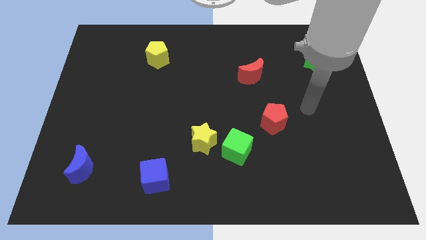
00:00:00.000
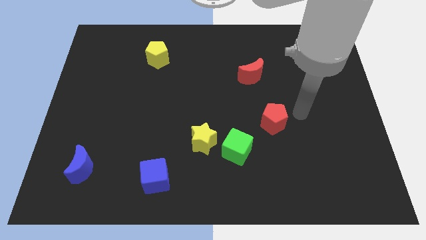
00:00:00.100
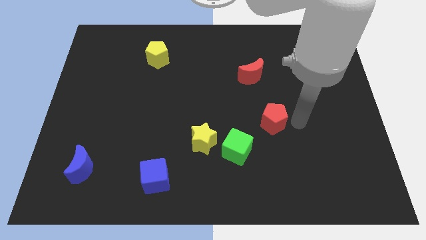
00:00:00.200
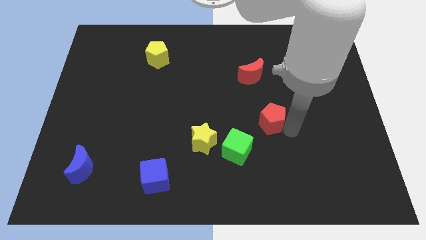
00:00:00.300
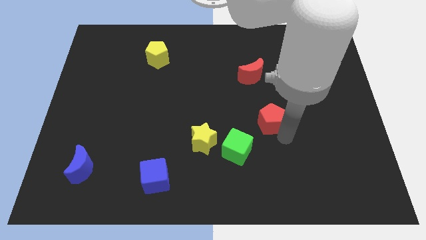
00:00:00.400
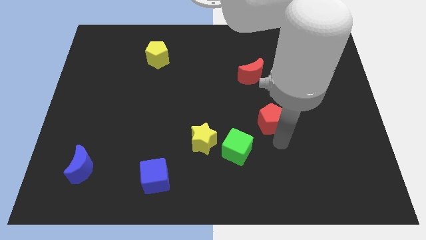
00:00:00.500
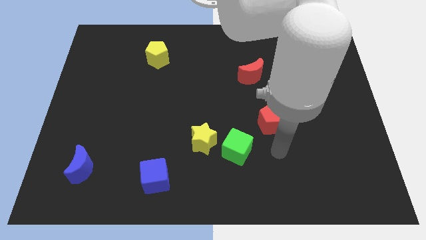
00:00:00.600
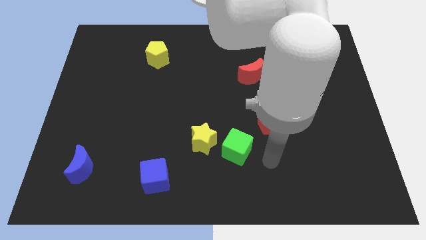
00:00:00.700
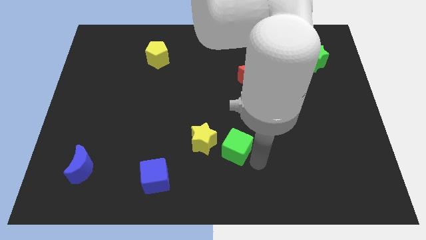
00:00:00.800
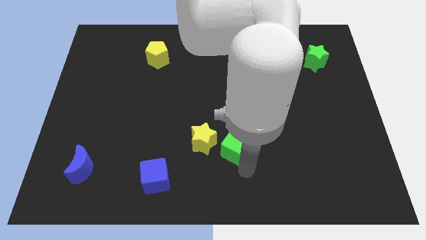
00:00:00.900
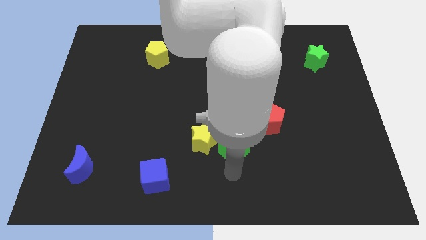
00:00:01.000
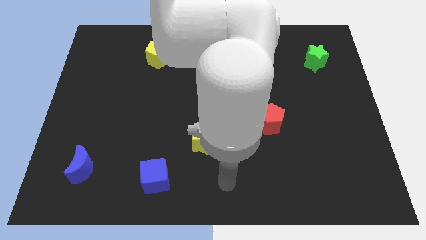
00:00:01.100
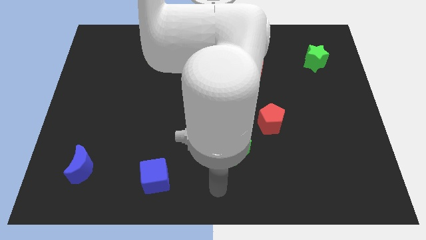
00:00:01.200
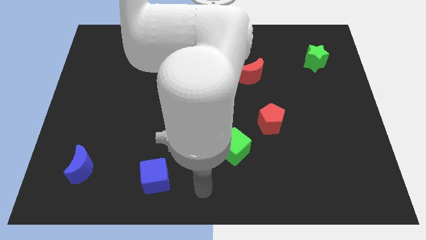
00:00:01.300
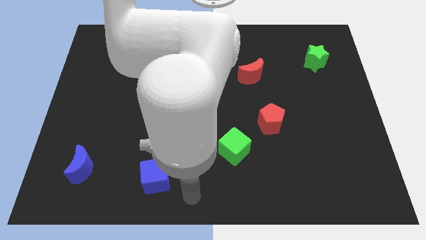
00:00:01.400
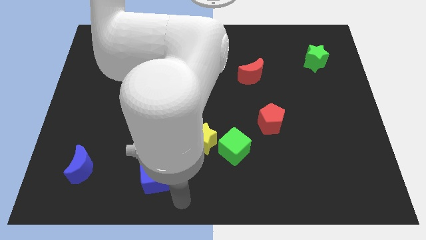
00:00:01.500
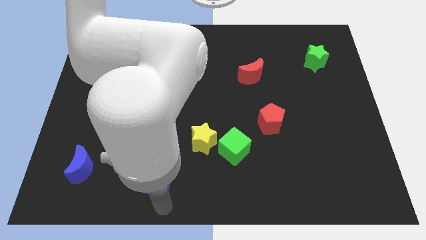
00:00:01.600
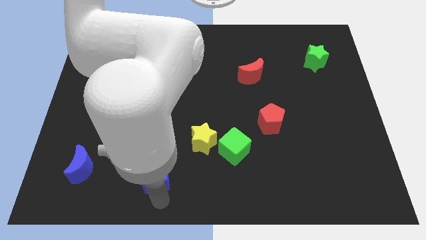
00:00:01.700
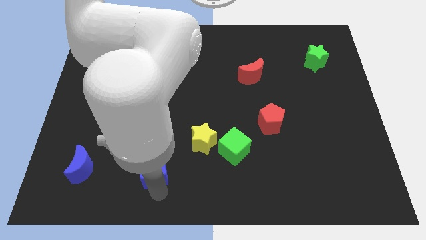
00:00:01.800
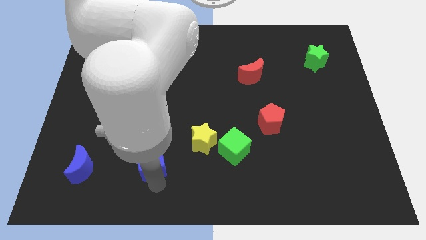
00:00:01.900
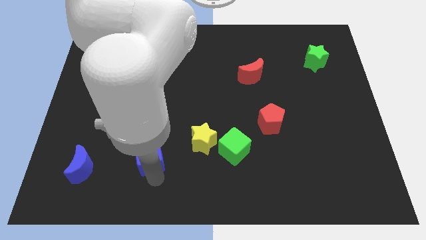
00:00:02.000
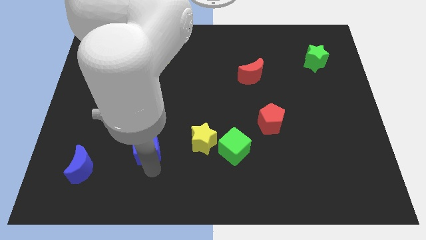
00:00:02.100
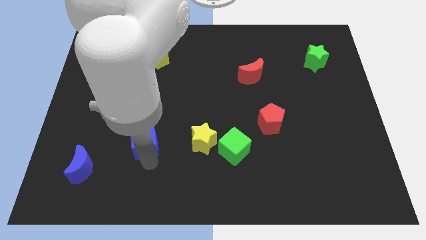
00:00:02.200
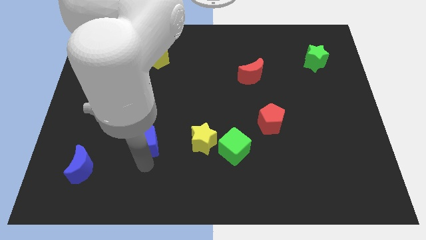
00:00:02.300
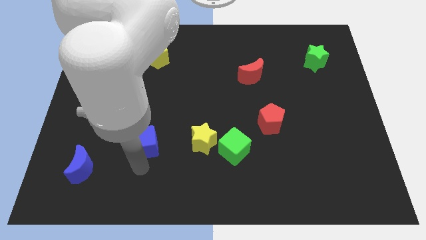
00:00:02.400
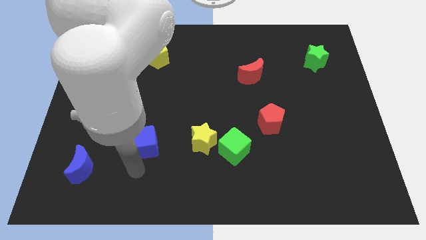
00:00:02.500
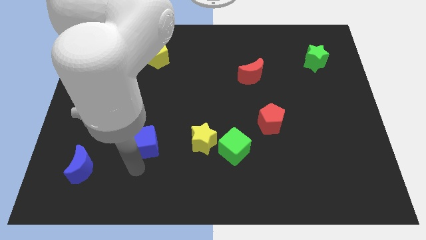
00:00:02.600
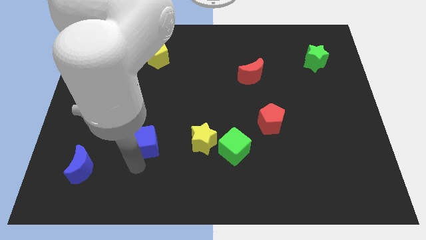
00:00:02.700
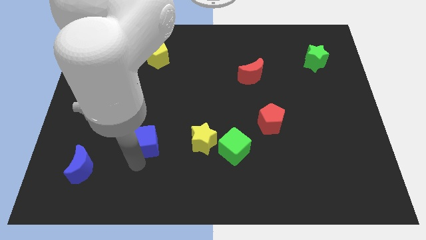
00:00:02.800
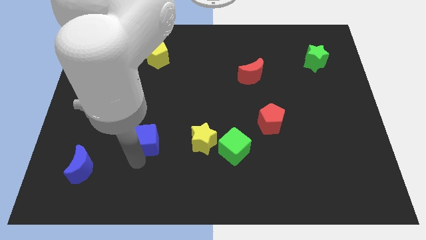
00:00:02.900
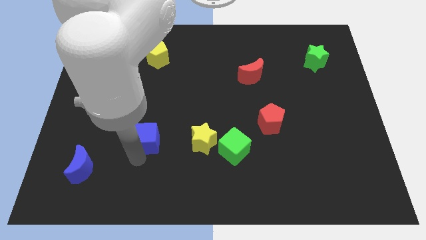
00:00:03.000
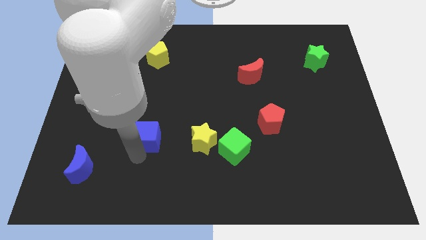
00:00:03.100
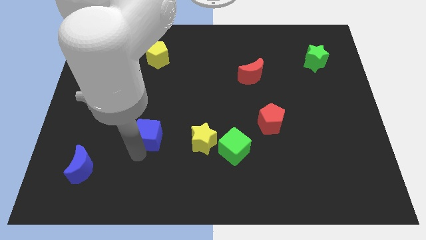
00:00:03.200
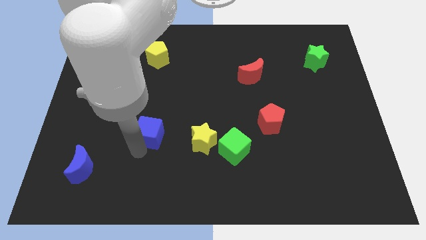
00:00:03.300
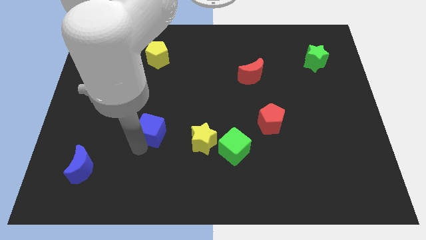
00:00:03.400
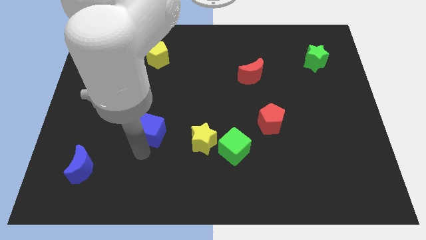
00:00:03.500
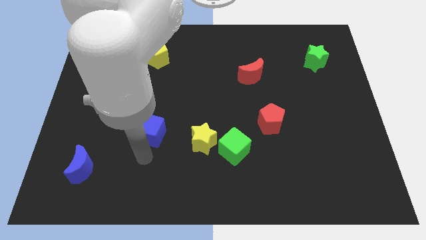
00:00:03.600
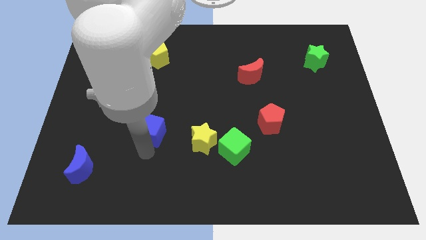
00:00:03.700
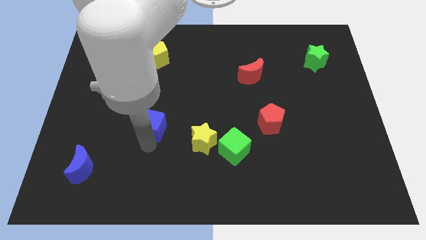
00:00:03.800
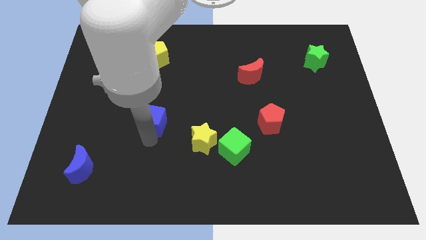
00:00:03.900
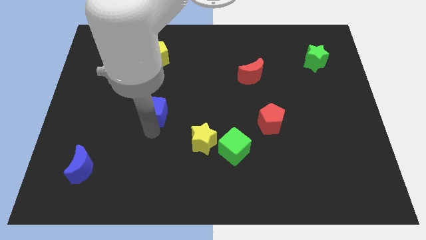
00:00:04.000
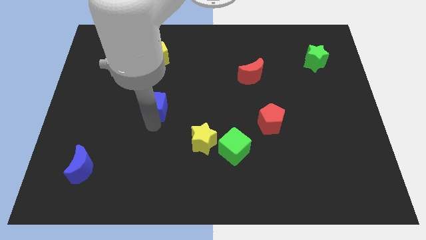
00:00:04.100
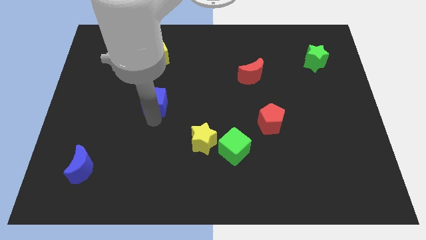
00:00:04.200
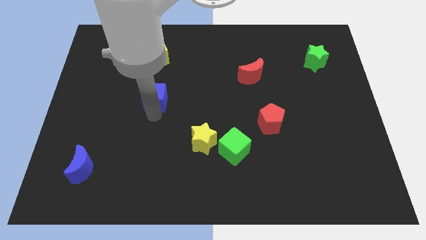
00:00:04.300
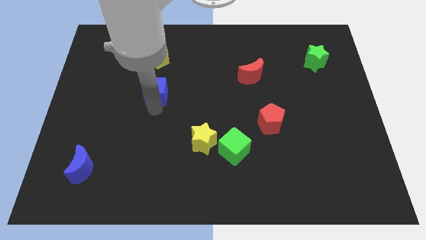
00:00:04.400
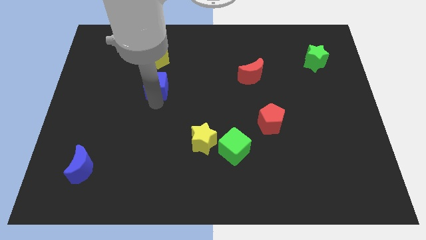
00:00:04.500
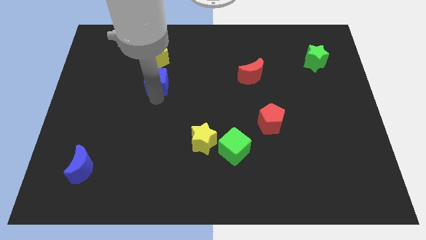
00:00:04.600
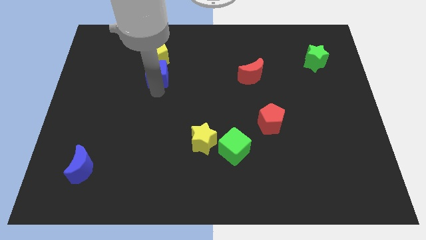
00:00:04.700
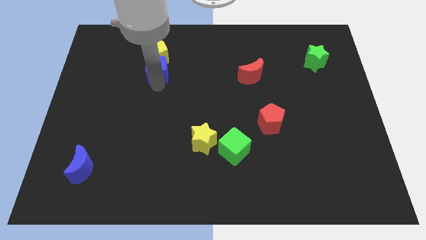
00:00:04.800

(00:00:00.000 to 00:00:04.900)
slide the blue cube next to the yellow pentagon

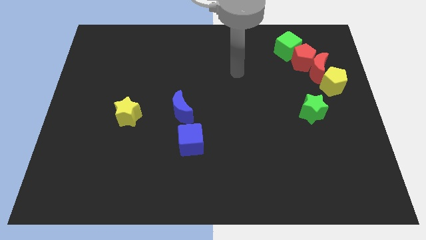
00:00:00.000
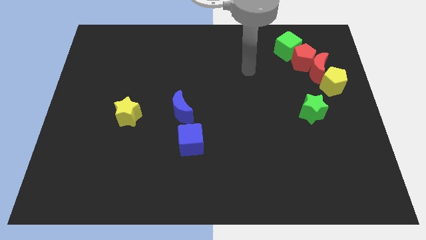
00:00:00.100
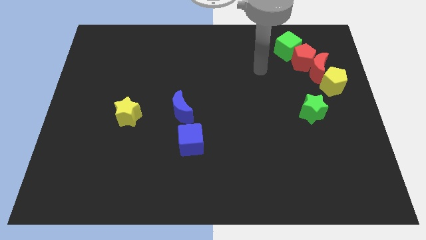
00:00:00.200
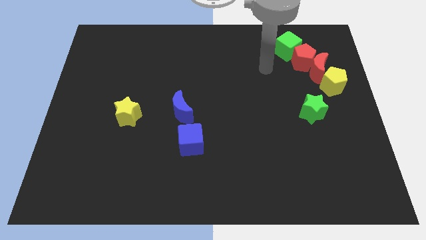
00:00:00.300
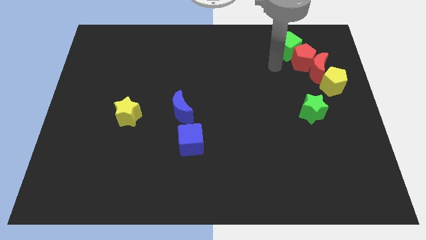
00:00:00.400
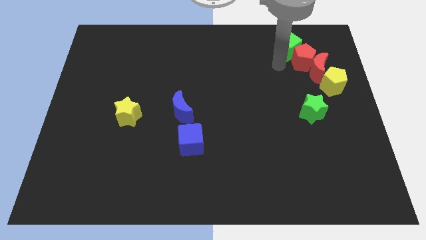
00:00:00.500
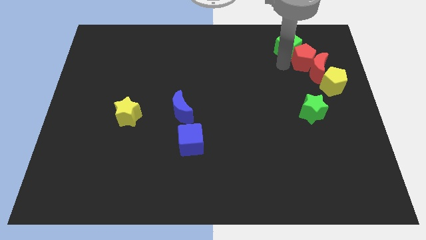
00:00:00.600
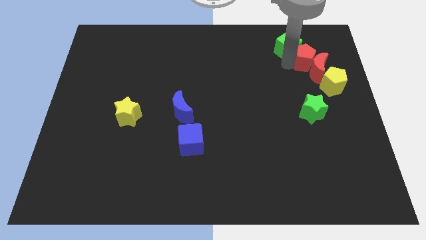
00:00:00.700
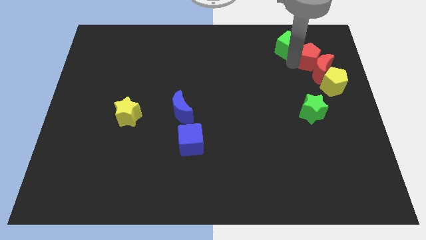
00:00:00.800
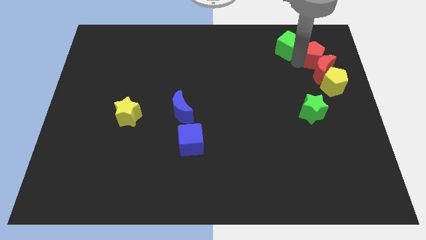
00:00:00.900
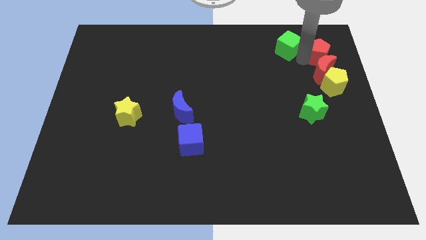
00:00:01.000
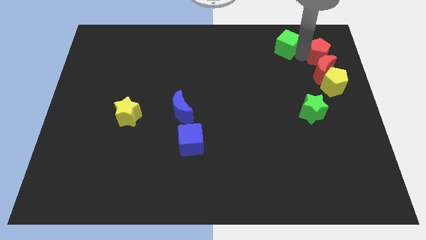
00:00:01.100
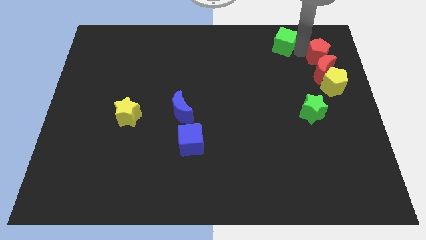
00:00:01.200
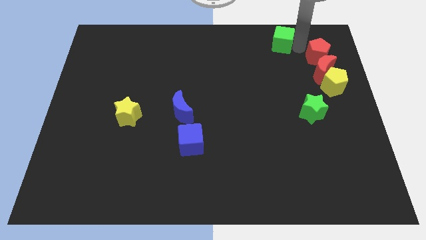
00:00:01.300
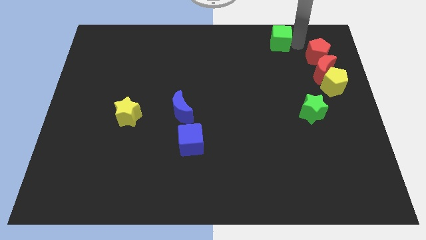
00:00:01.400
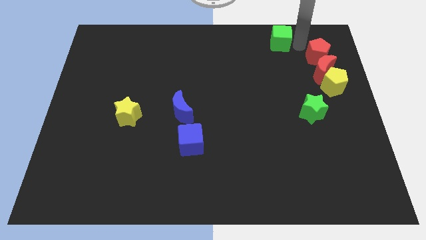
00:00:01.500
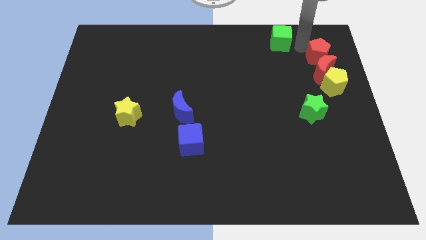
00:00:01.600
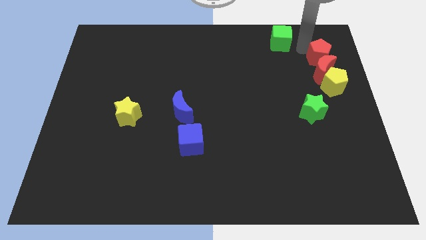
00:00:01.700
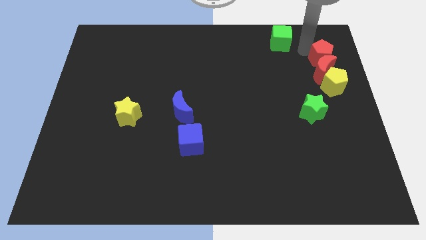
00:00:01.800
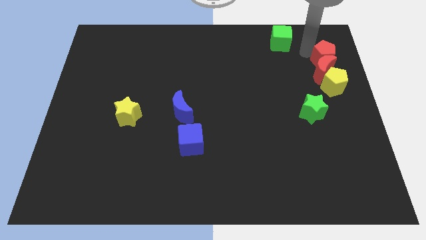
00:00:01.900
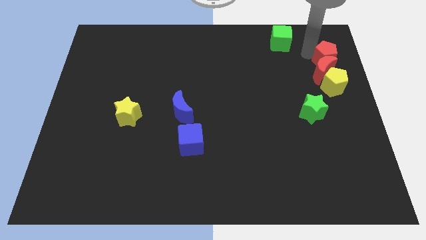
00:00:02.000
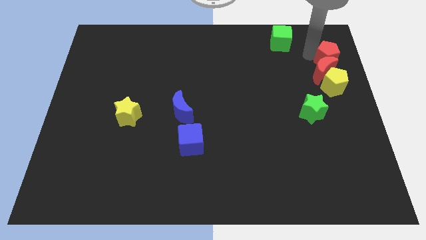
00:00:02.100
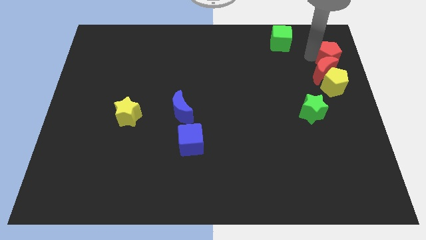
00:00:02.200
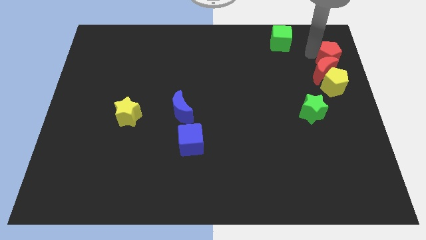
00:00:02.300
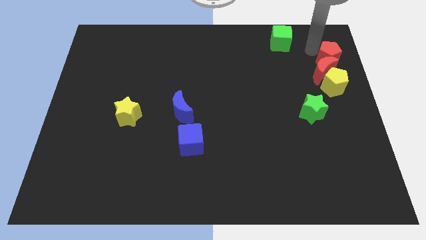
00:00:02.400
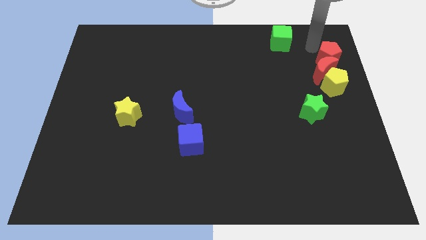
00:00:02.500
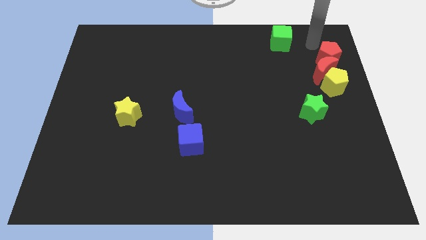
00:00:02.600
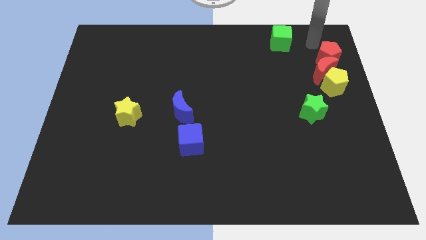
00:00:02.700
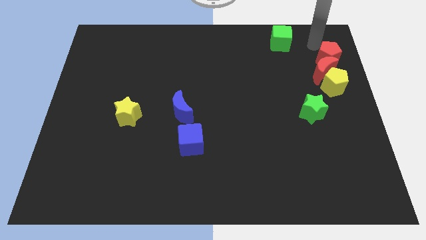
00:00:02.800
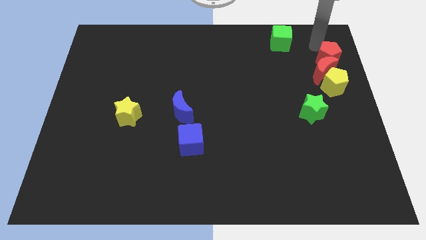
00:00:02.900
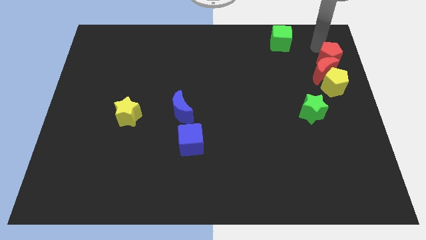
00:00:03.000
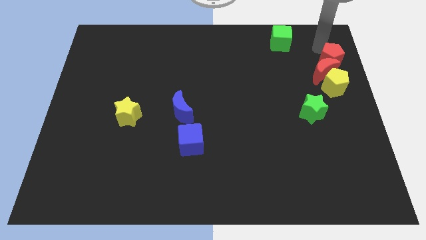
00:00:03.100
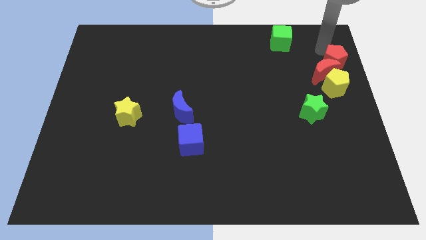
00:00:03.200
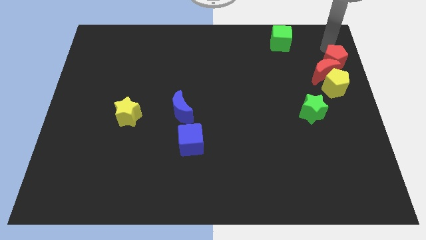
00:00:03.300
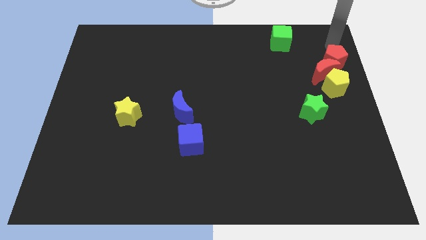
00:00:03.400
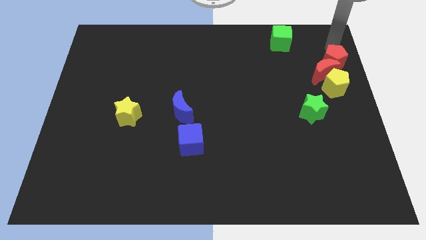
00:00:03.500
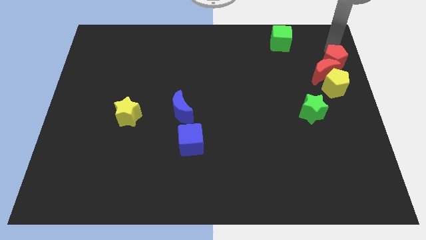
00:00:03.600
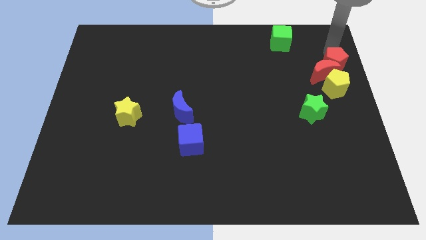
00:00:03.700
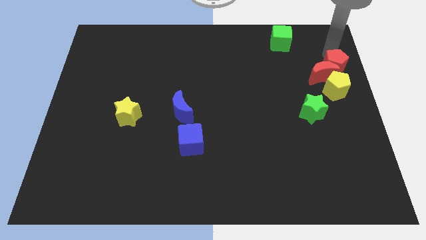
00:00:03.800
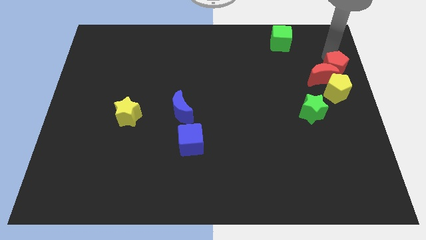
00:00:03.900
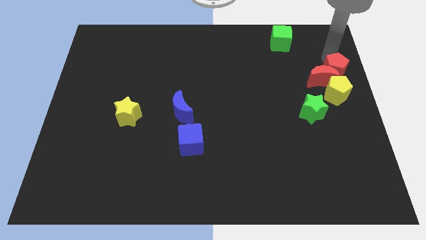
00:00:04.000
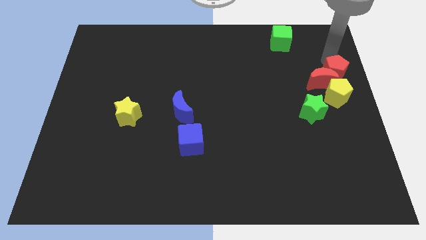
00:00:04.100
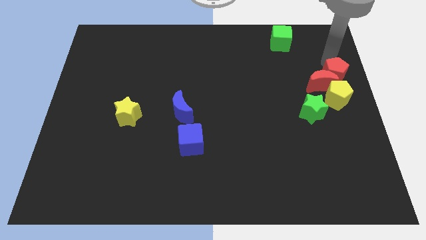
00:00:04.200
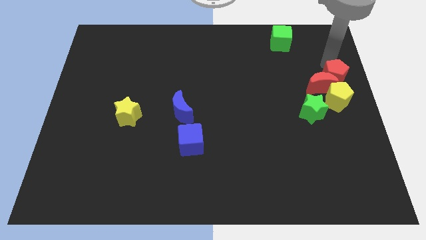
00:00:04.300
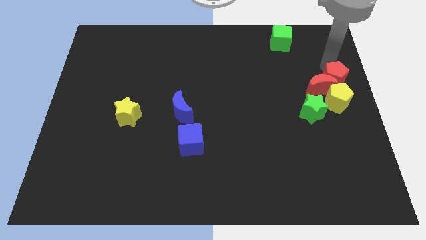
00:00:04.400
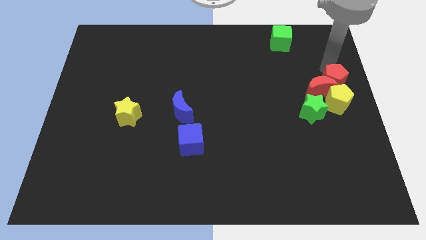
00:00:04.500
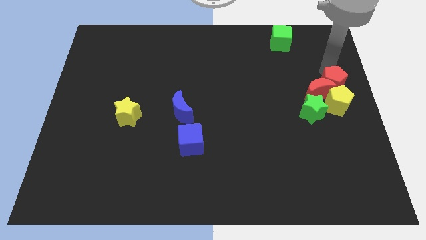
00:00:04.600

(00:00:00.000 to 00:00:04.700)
push the red pentagon to the yellow pentagon
